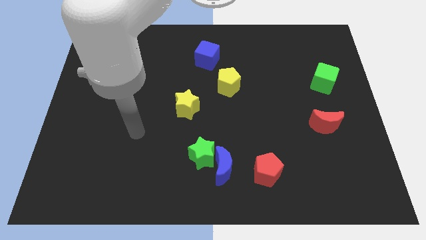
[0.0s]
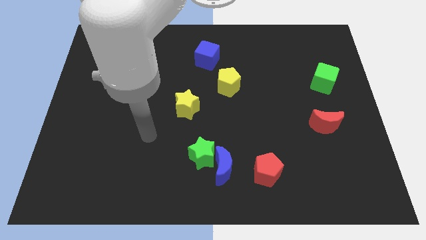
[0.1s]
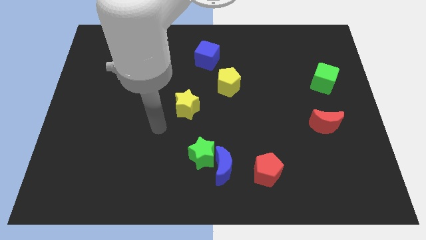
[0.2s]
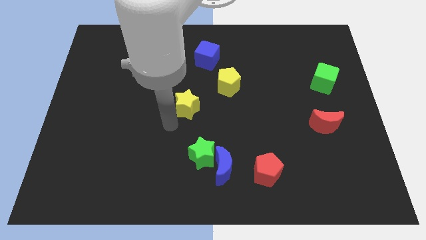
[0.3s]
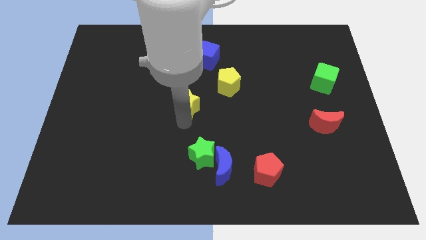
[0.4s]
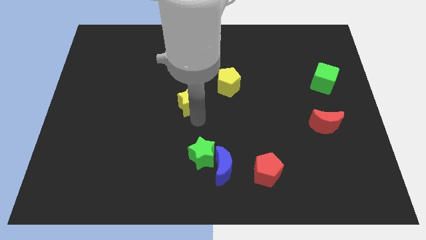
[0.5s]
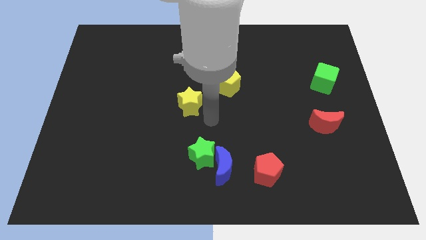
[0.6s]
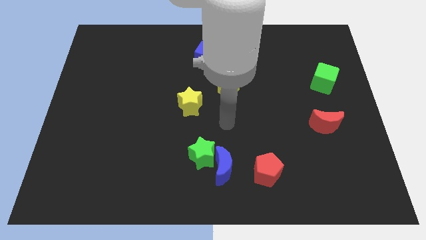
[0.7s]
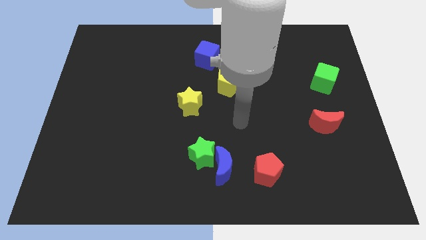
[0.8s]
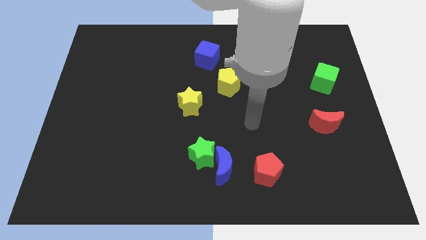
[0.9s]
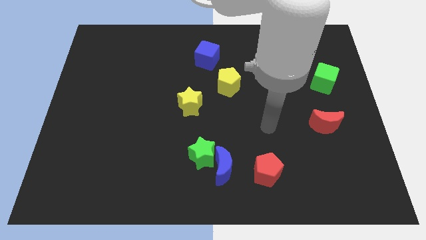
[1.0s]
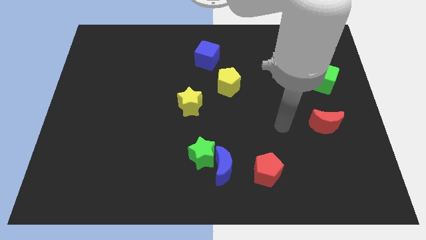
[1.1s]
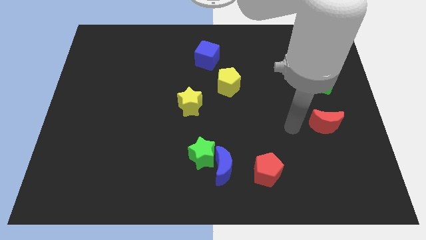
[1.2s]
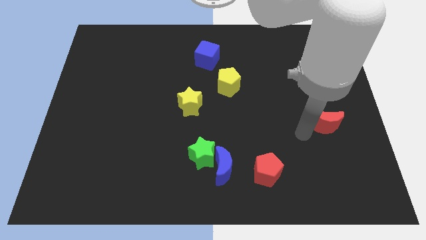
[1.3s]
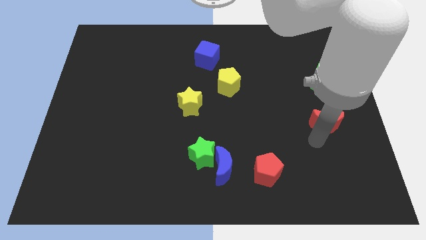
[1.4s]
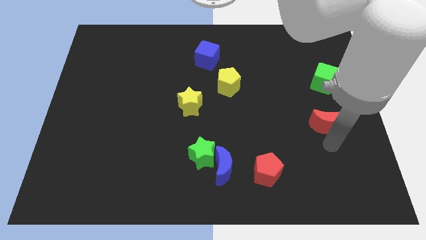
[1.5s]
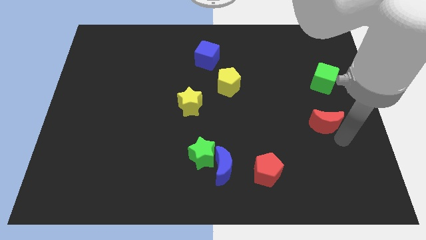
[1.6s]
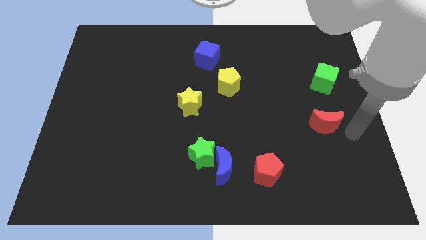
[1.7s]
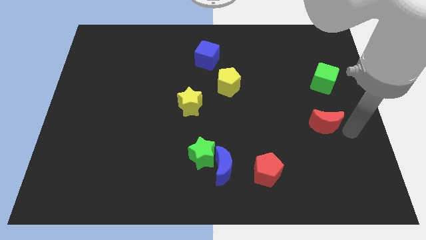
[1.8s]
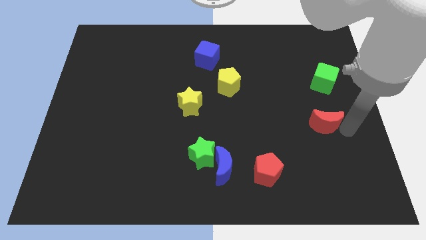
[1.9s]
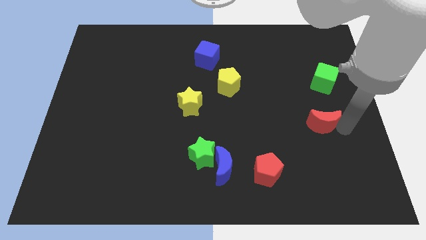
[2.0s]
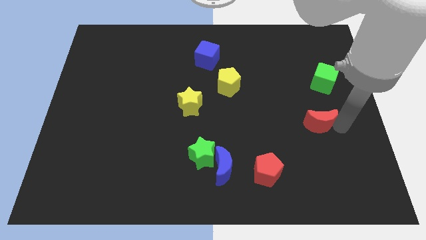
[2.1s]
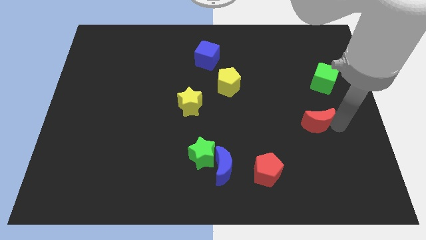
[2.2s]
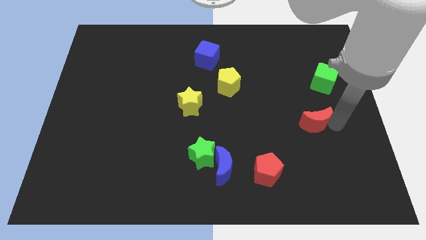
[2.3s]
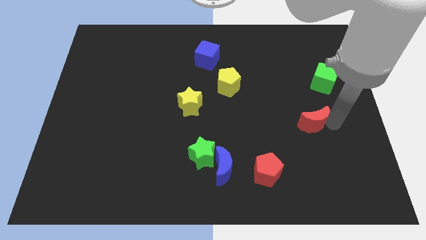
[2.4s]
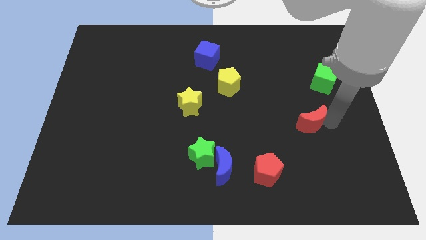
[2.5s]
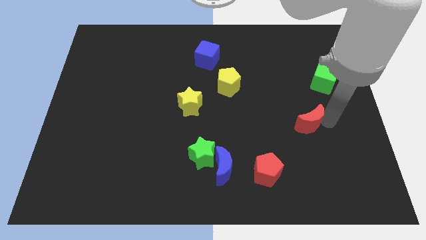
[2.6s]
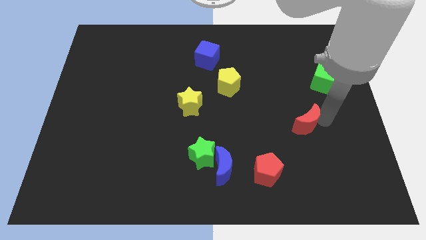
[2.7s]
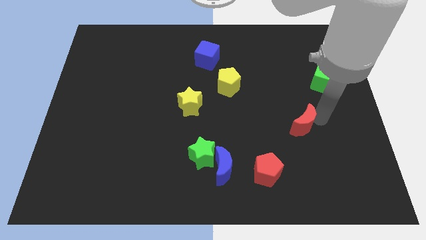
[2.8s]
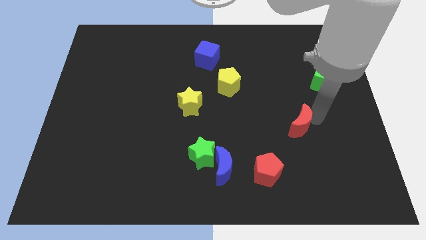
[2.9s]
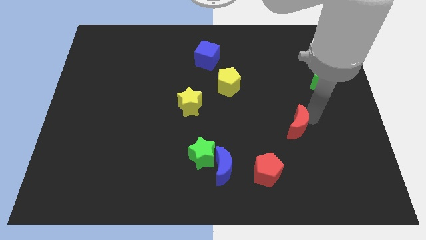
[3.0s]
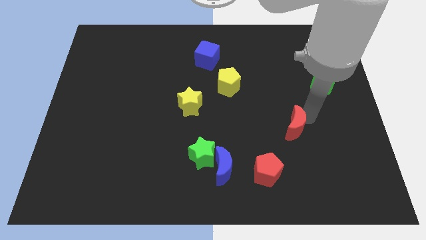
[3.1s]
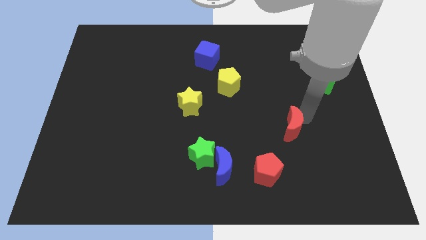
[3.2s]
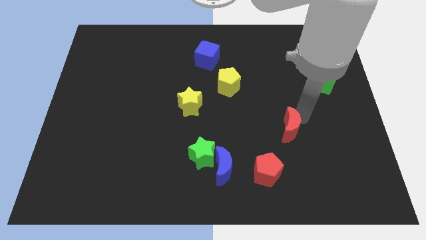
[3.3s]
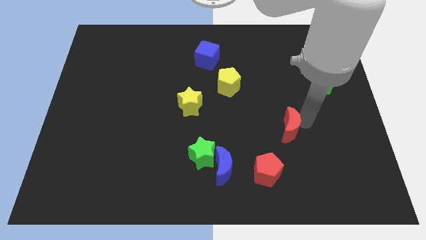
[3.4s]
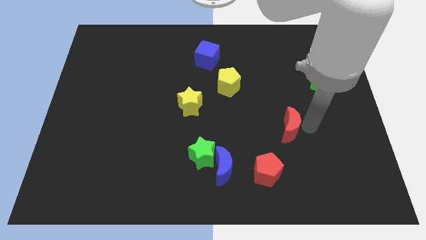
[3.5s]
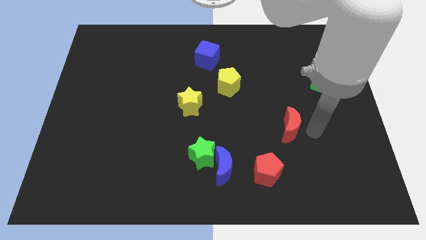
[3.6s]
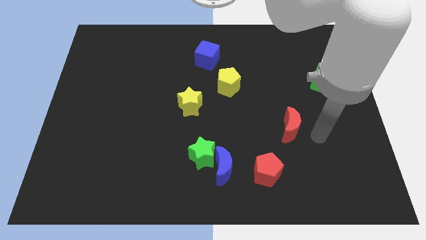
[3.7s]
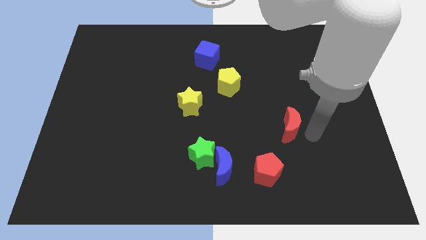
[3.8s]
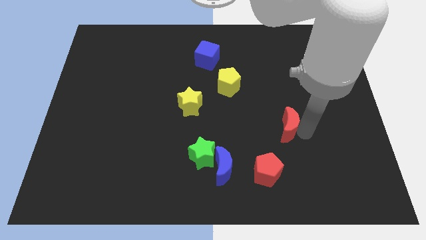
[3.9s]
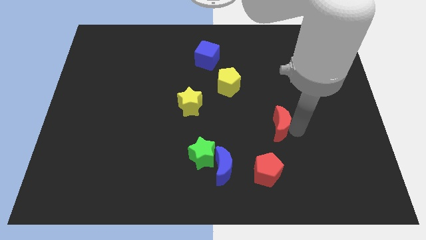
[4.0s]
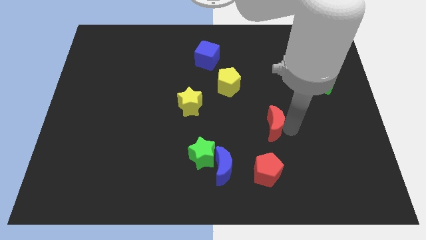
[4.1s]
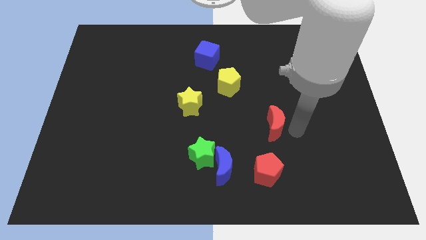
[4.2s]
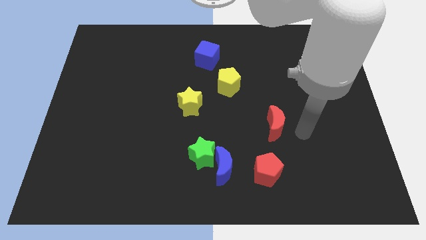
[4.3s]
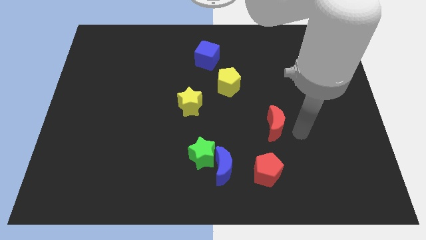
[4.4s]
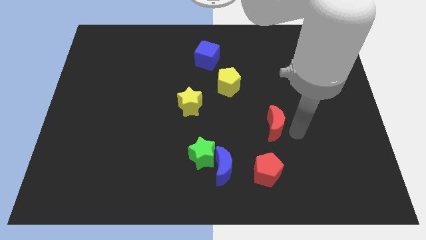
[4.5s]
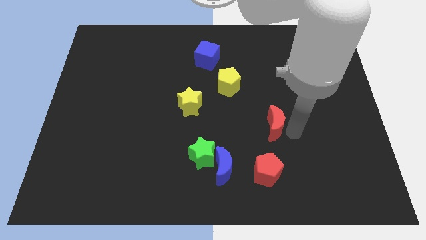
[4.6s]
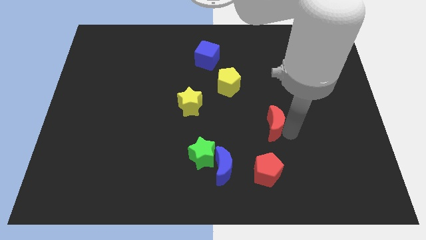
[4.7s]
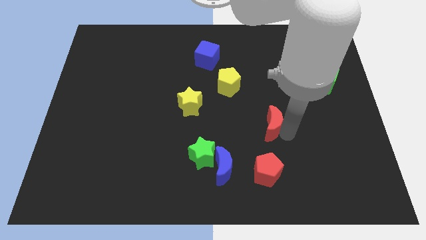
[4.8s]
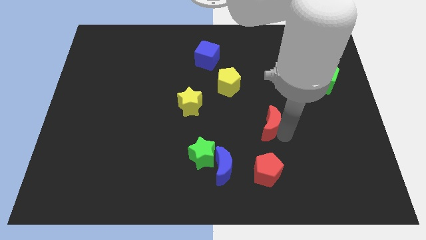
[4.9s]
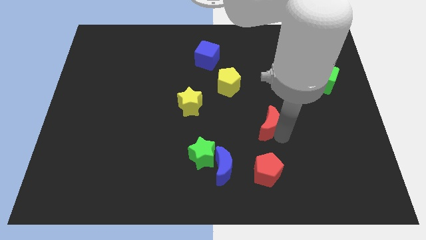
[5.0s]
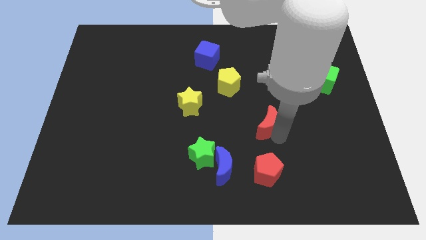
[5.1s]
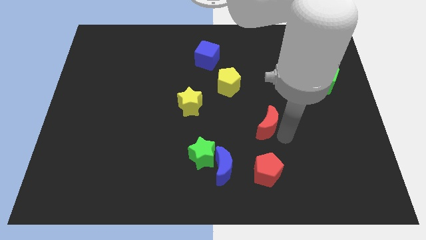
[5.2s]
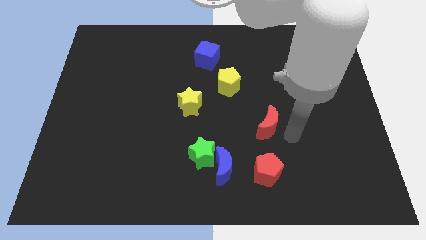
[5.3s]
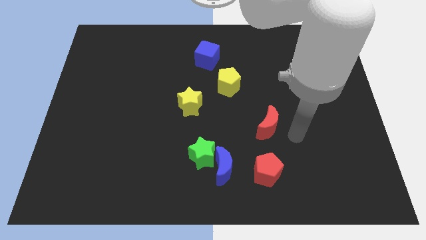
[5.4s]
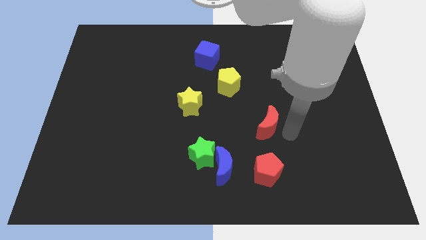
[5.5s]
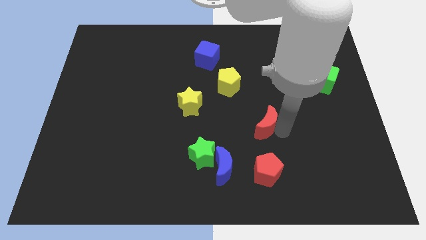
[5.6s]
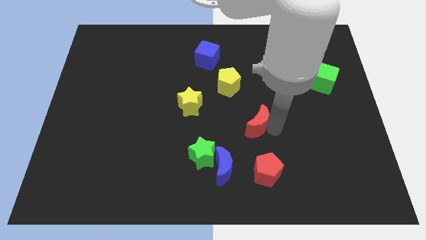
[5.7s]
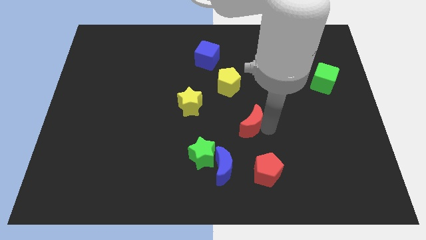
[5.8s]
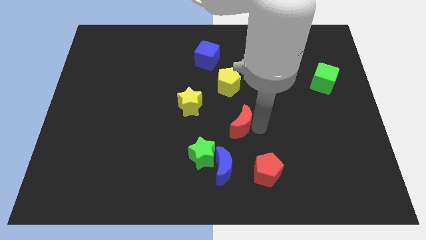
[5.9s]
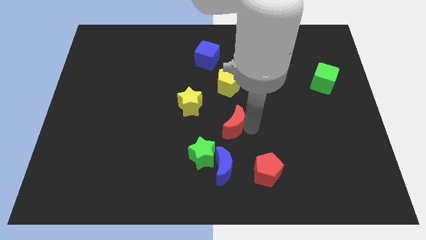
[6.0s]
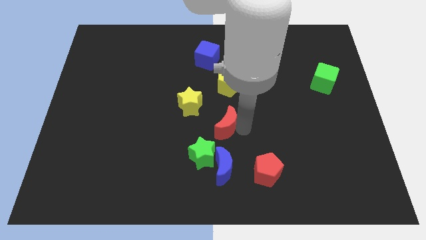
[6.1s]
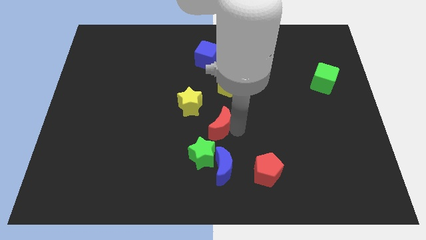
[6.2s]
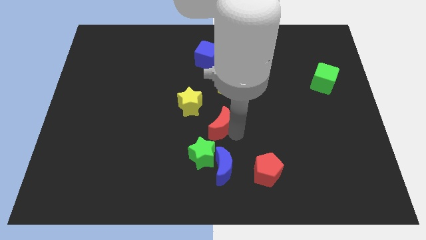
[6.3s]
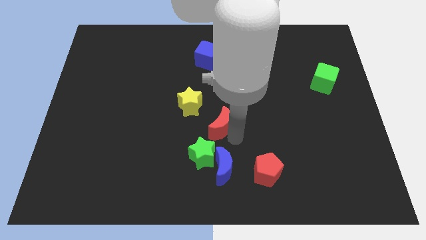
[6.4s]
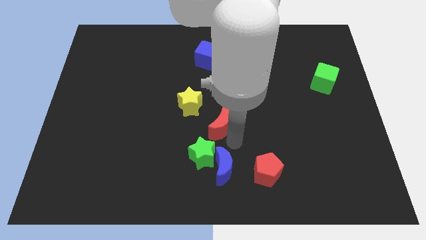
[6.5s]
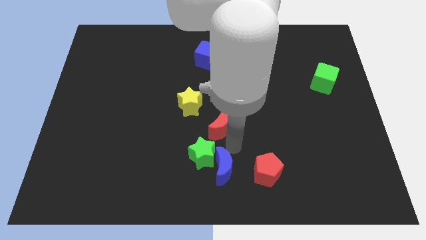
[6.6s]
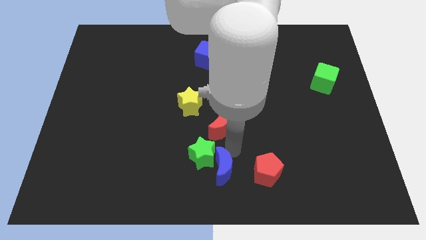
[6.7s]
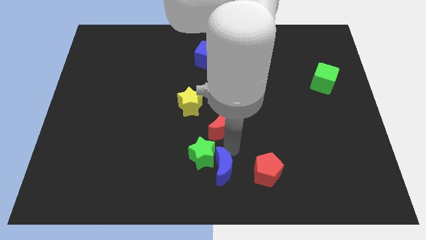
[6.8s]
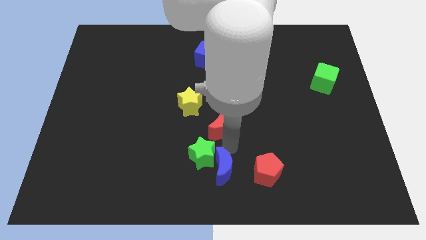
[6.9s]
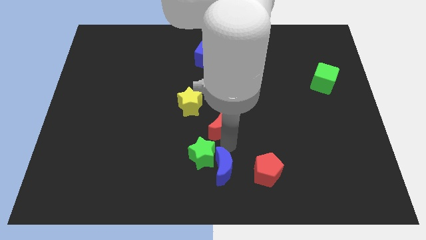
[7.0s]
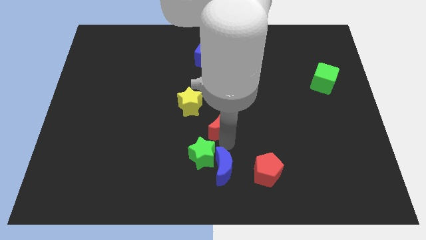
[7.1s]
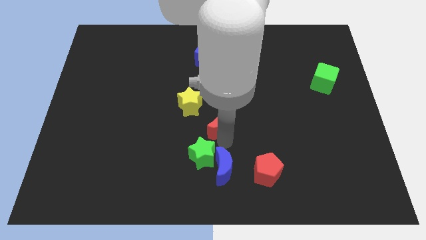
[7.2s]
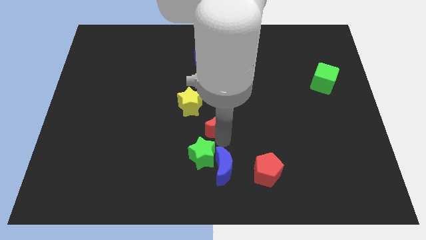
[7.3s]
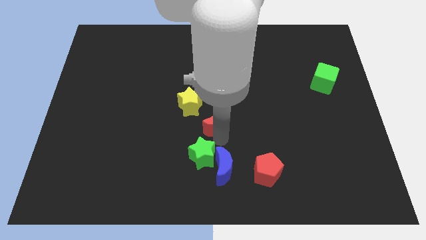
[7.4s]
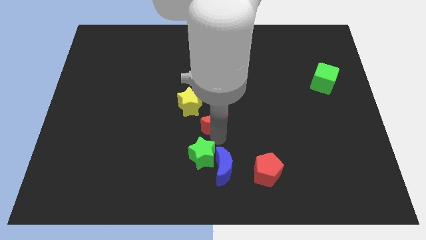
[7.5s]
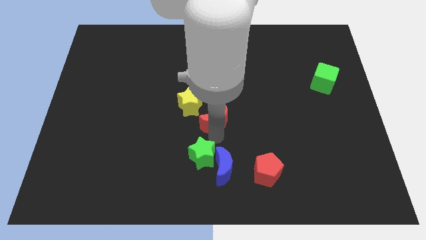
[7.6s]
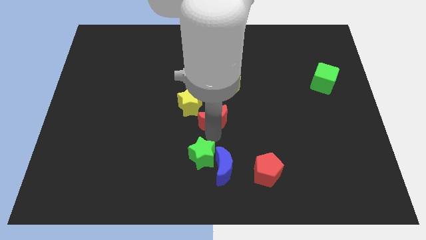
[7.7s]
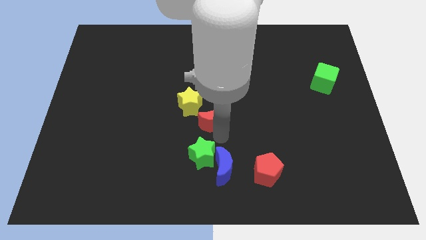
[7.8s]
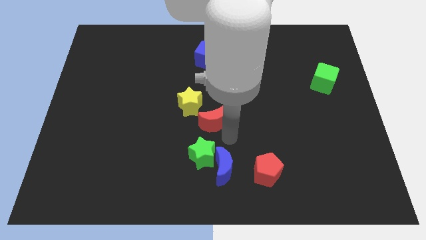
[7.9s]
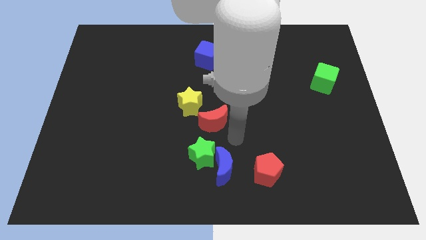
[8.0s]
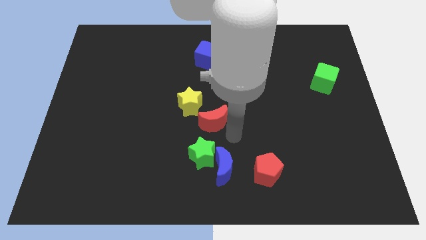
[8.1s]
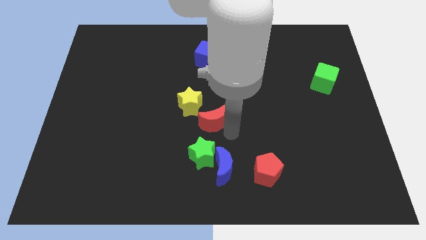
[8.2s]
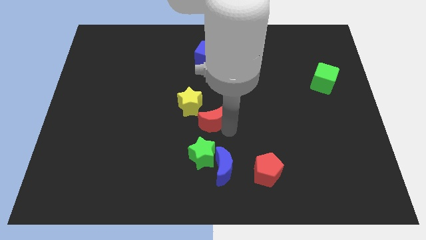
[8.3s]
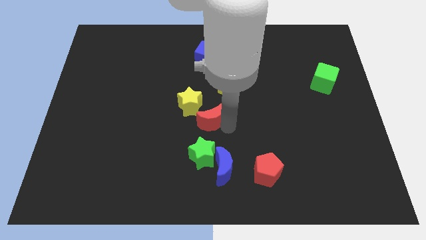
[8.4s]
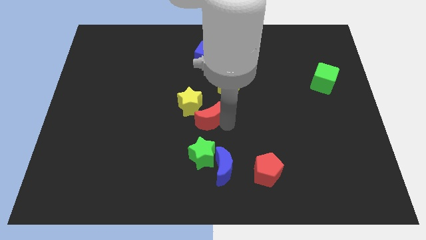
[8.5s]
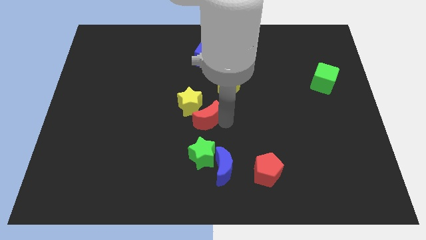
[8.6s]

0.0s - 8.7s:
push the red moon towards the yellow star
